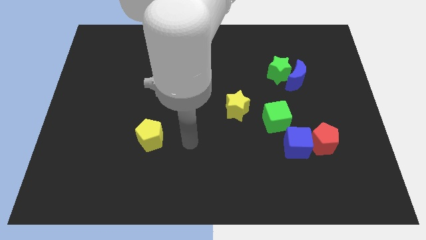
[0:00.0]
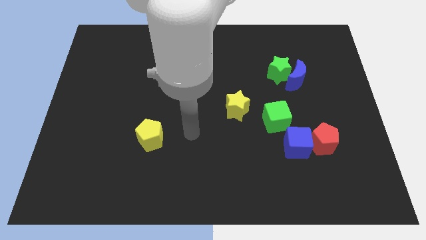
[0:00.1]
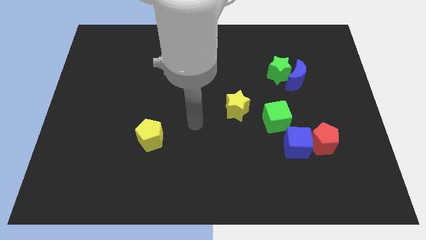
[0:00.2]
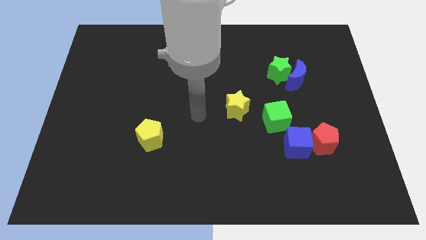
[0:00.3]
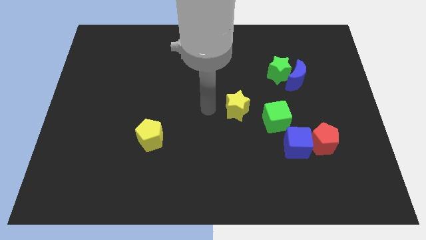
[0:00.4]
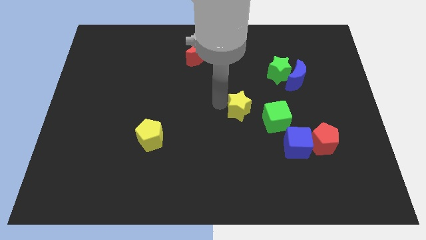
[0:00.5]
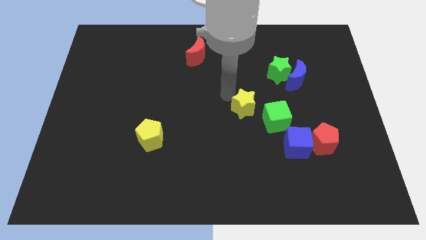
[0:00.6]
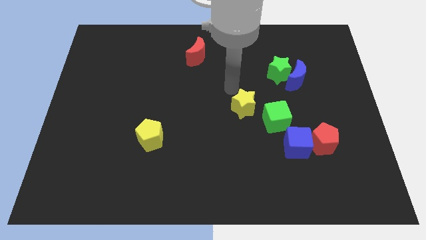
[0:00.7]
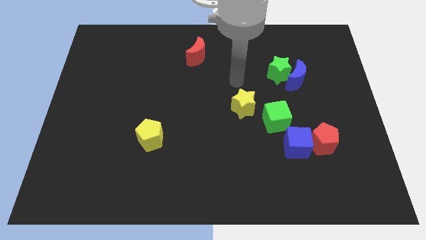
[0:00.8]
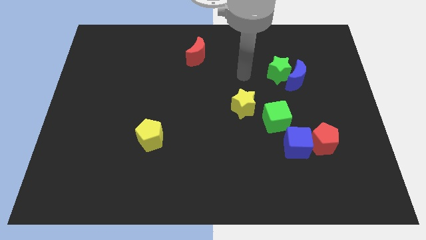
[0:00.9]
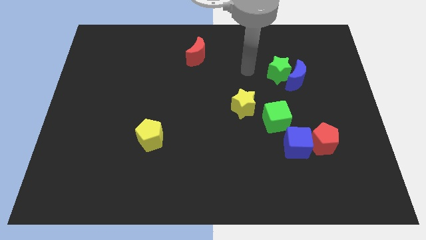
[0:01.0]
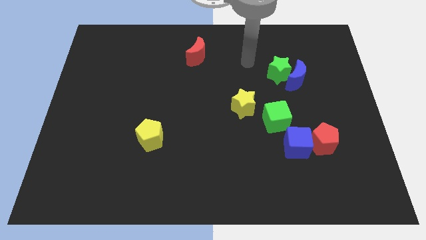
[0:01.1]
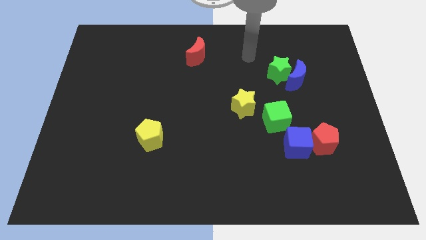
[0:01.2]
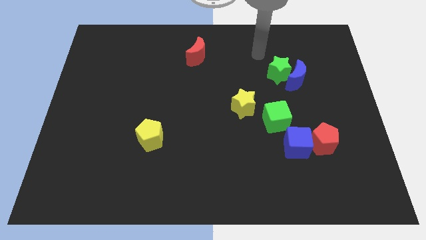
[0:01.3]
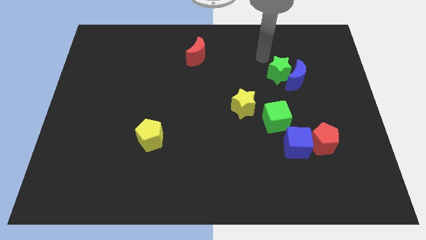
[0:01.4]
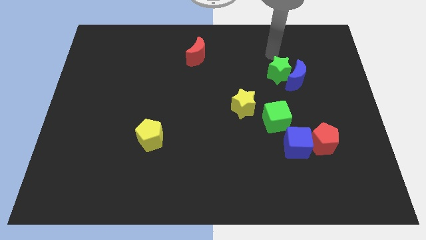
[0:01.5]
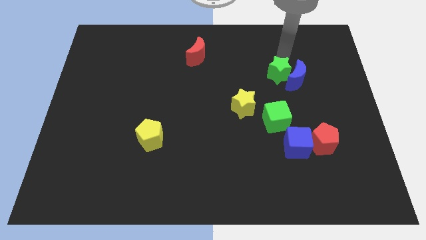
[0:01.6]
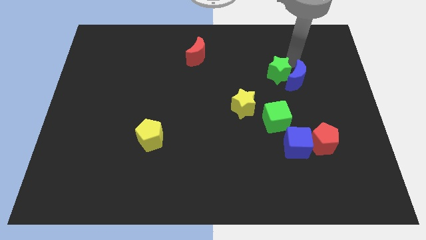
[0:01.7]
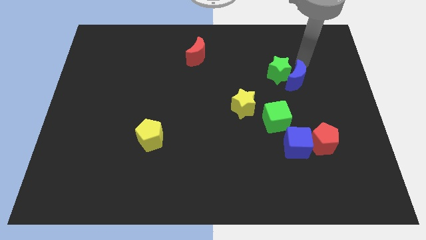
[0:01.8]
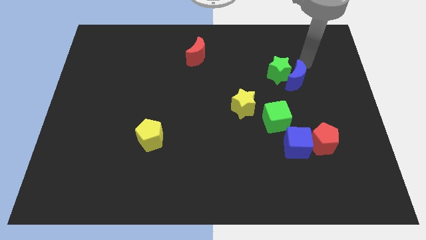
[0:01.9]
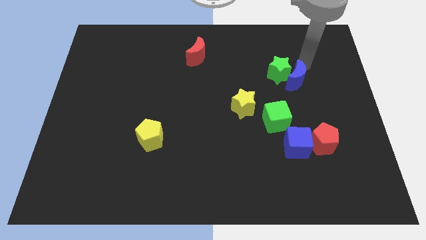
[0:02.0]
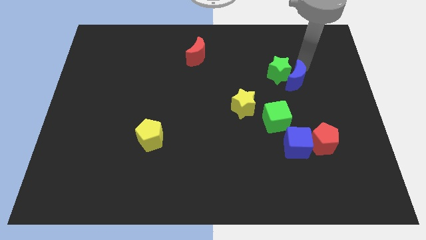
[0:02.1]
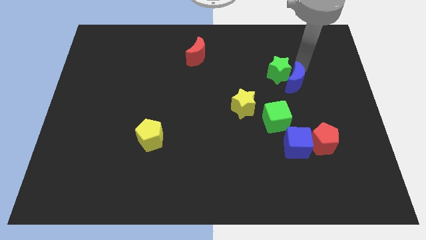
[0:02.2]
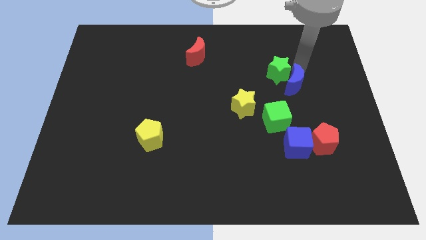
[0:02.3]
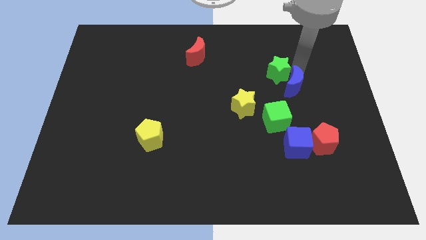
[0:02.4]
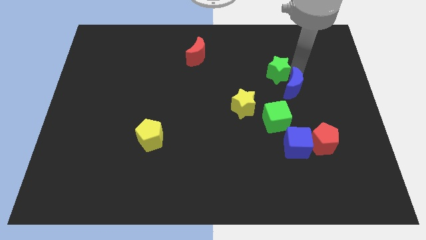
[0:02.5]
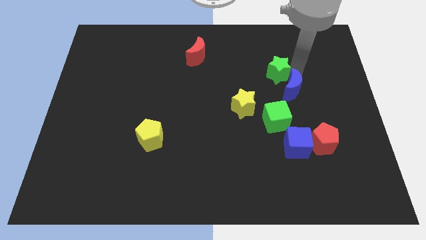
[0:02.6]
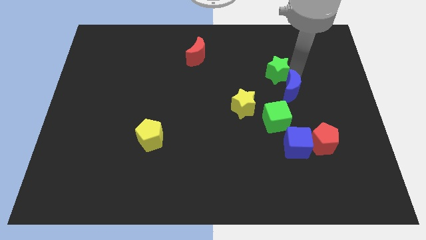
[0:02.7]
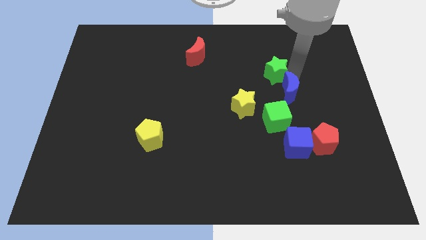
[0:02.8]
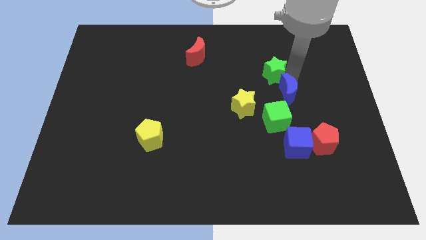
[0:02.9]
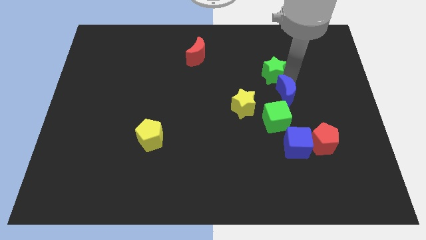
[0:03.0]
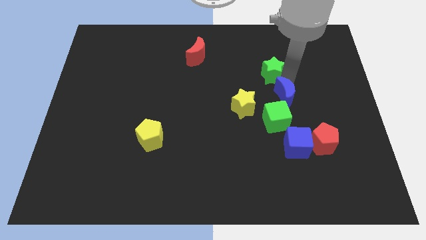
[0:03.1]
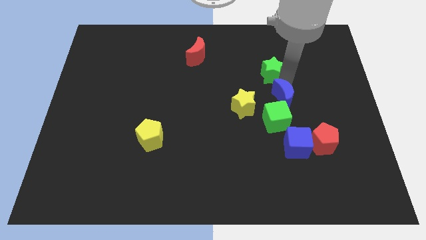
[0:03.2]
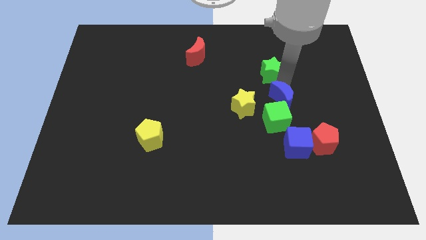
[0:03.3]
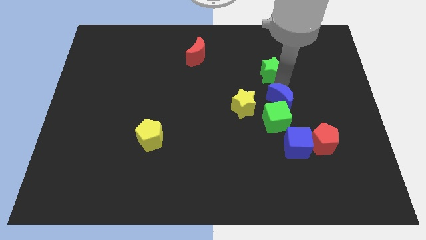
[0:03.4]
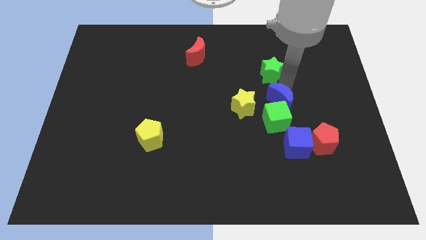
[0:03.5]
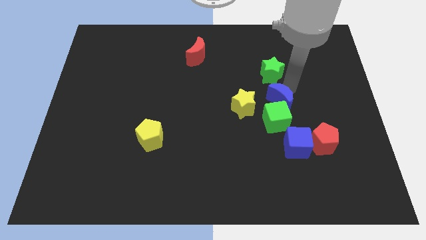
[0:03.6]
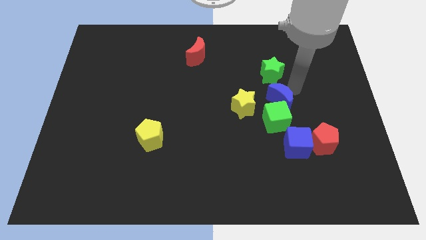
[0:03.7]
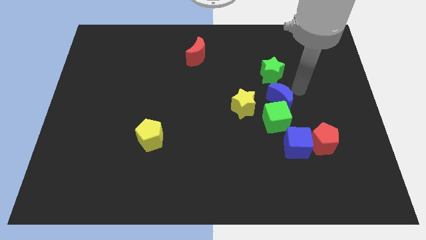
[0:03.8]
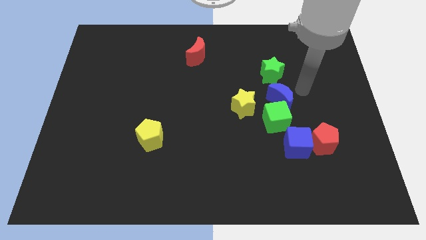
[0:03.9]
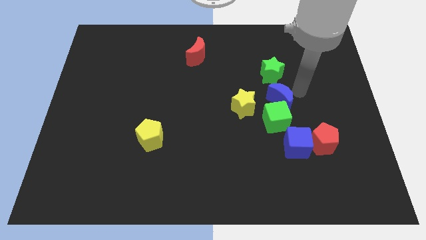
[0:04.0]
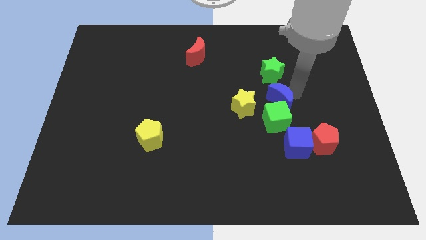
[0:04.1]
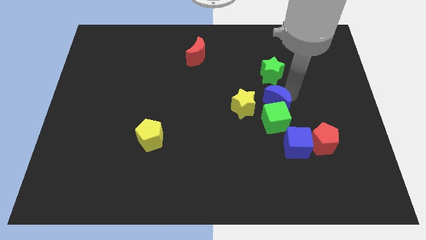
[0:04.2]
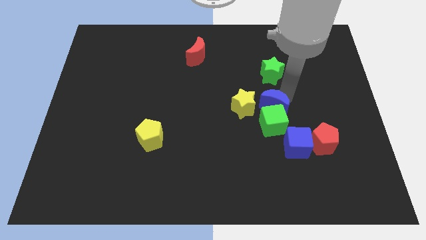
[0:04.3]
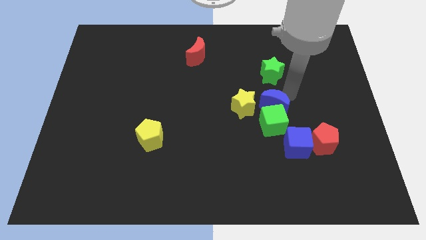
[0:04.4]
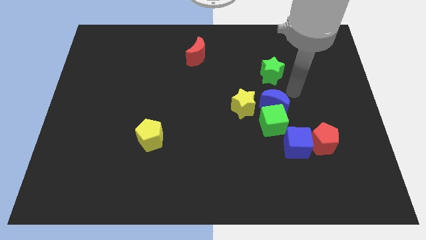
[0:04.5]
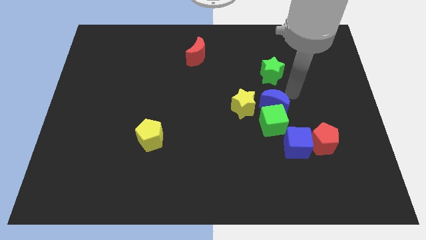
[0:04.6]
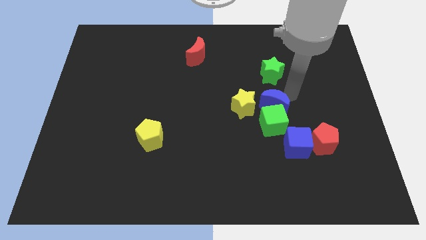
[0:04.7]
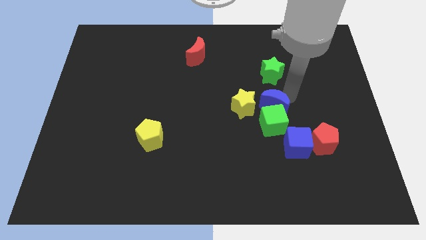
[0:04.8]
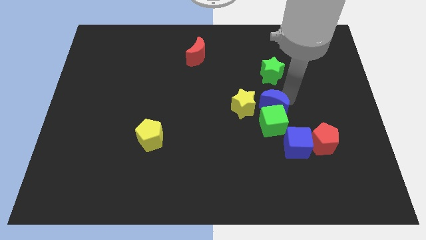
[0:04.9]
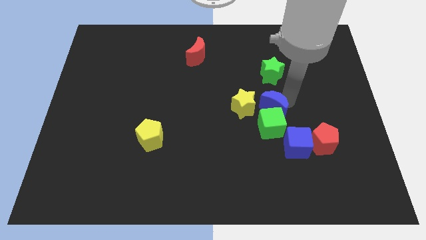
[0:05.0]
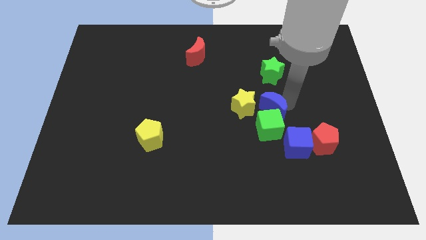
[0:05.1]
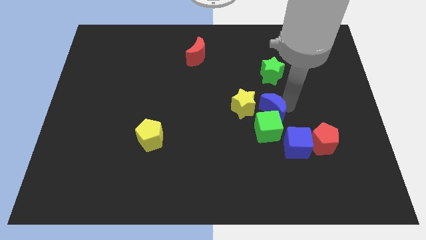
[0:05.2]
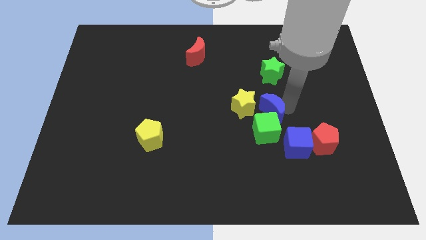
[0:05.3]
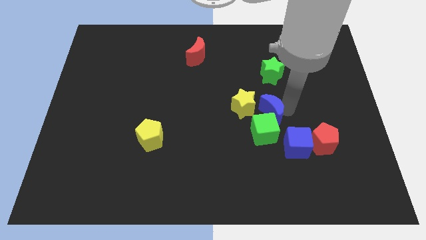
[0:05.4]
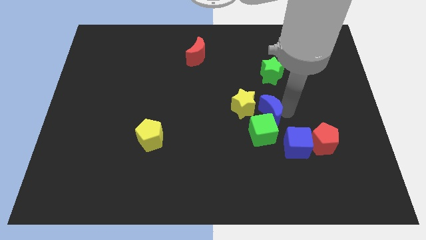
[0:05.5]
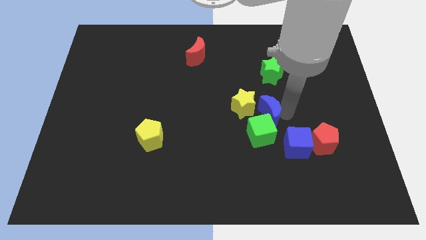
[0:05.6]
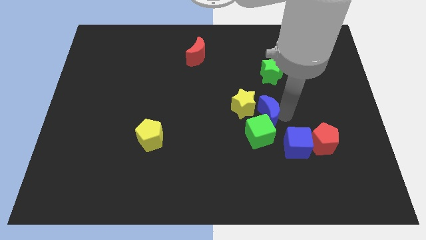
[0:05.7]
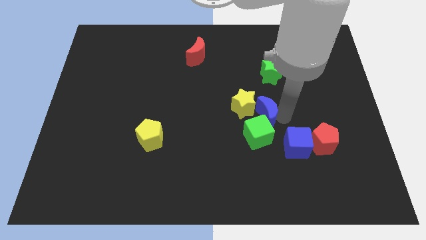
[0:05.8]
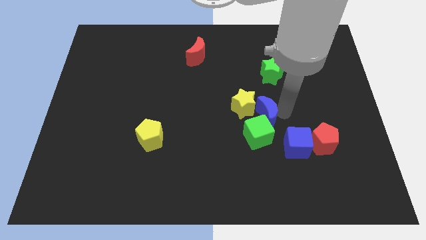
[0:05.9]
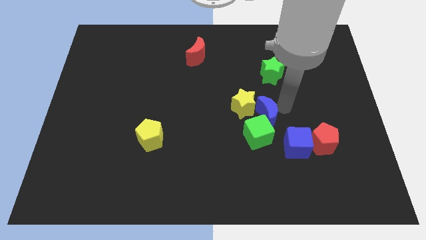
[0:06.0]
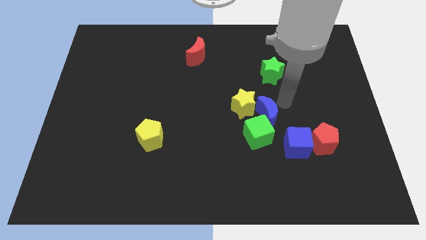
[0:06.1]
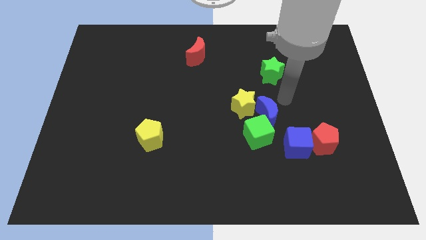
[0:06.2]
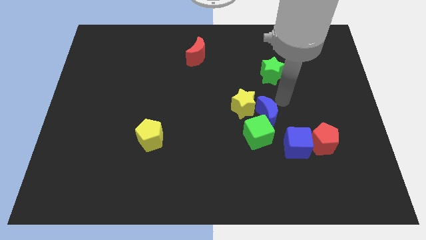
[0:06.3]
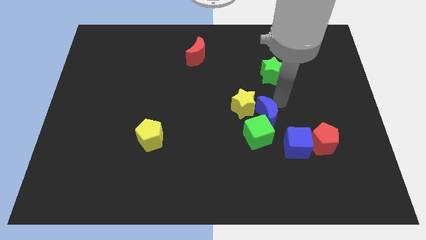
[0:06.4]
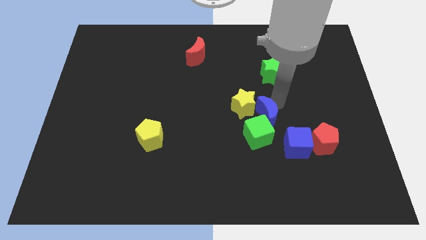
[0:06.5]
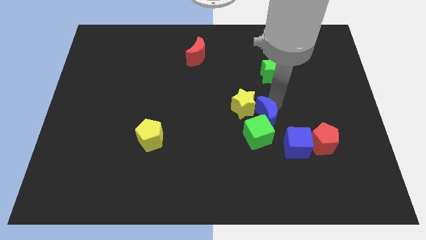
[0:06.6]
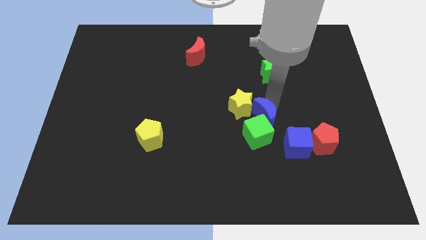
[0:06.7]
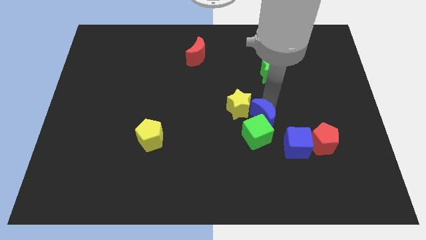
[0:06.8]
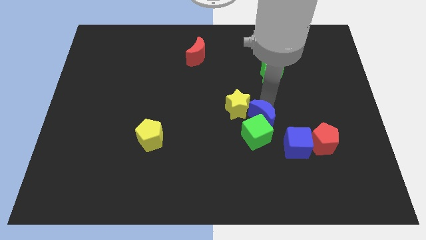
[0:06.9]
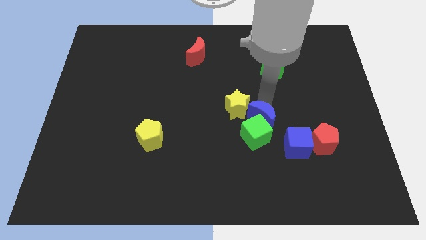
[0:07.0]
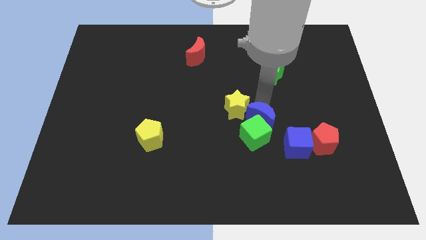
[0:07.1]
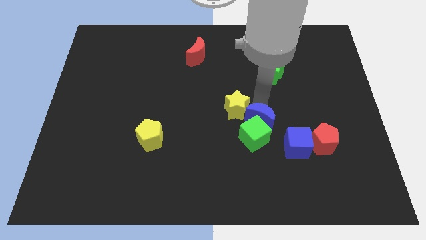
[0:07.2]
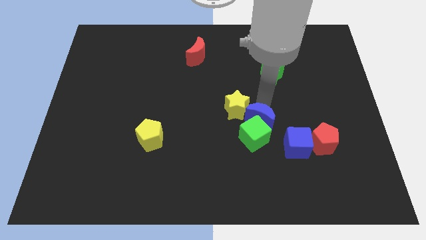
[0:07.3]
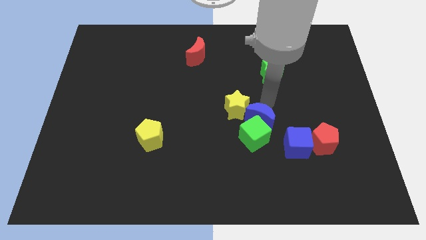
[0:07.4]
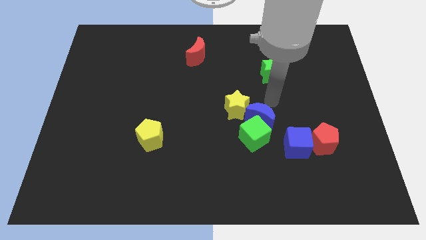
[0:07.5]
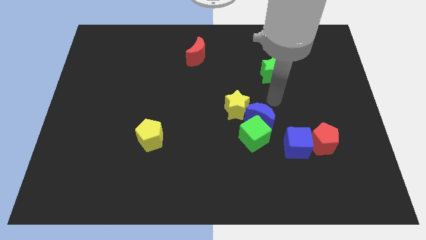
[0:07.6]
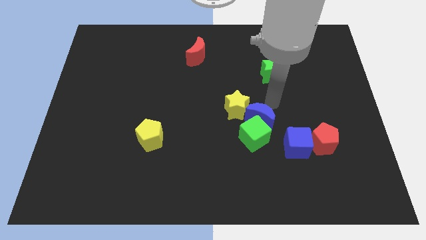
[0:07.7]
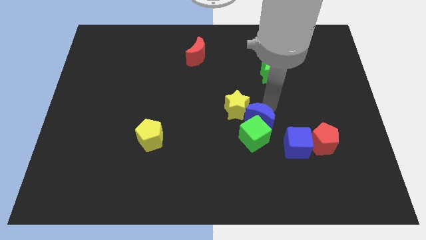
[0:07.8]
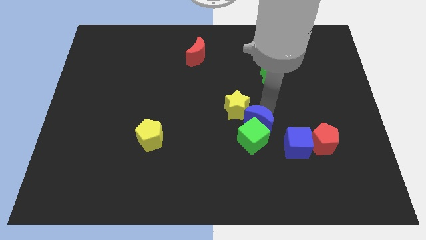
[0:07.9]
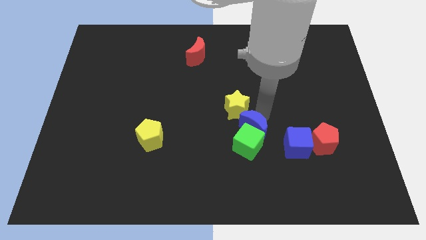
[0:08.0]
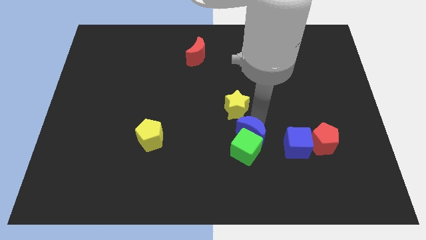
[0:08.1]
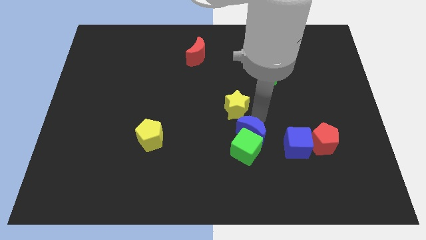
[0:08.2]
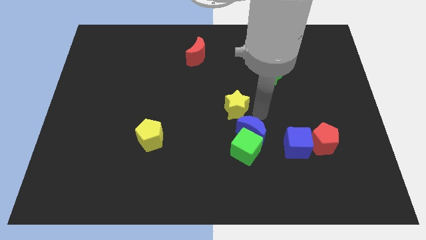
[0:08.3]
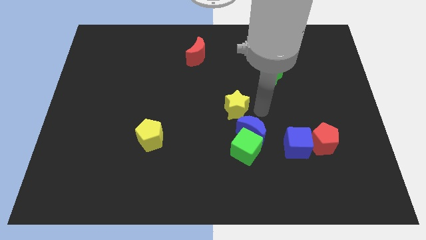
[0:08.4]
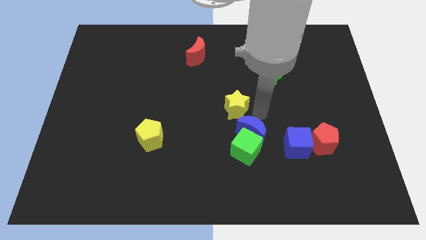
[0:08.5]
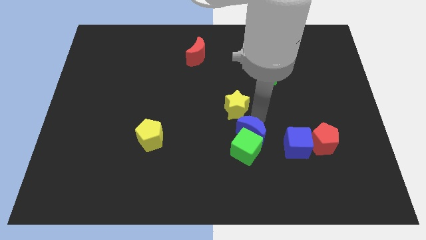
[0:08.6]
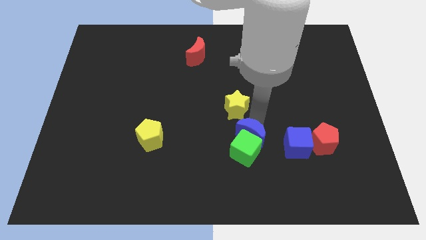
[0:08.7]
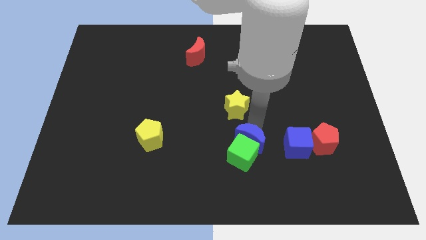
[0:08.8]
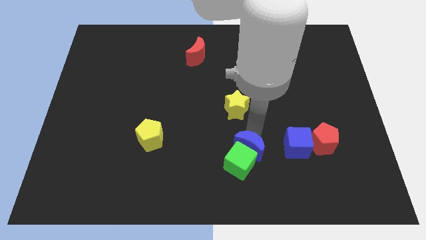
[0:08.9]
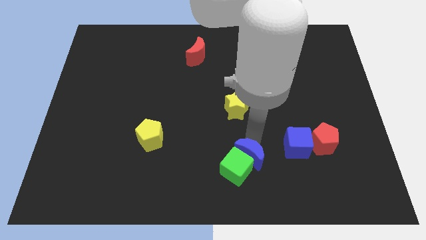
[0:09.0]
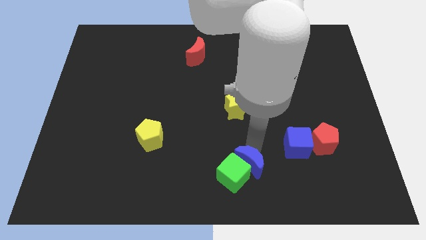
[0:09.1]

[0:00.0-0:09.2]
put the blue moon to the bottom
